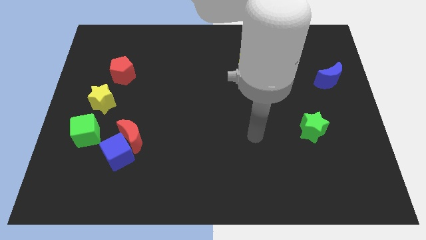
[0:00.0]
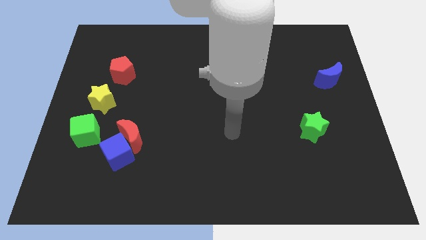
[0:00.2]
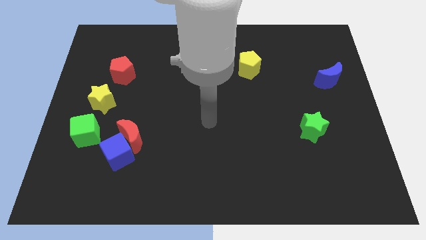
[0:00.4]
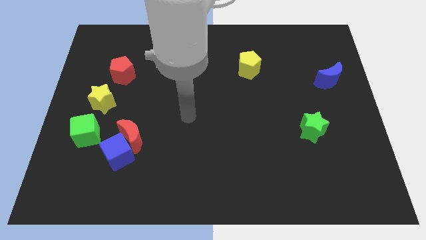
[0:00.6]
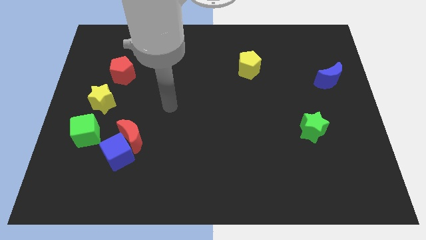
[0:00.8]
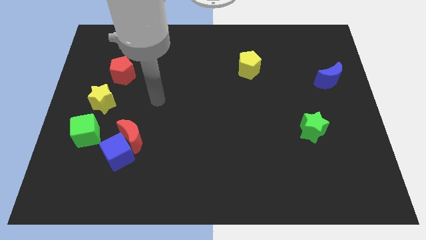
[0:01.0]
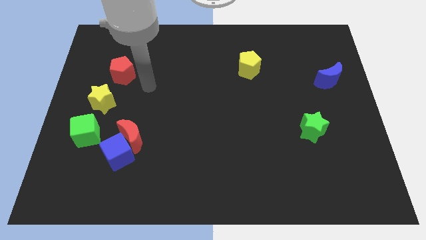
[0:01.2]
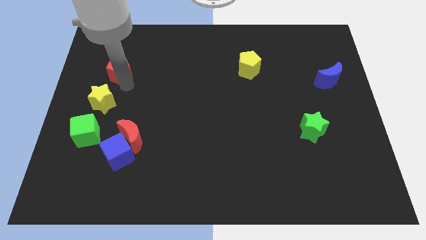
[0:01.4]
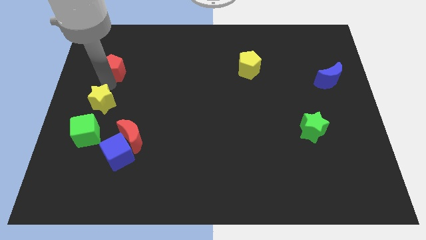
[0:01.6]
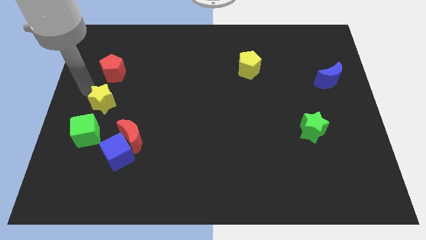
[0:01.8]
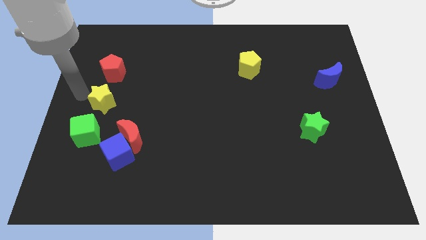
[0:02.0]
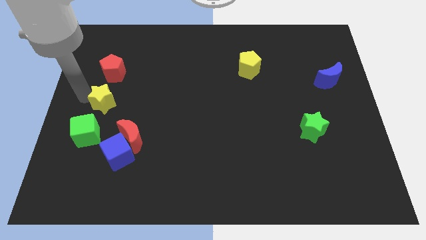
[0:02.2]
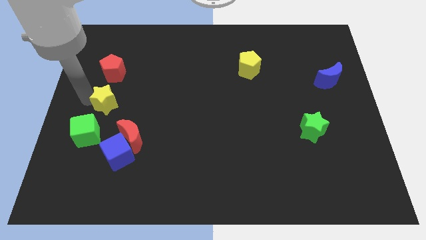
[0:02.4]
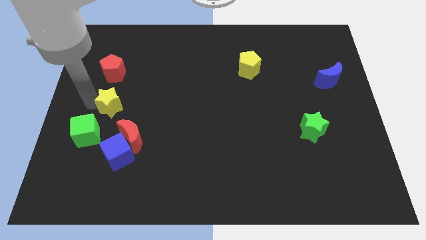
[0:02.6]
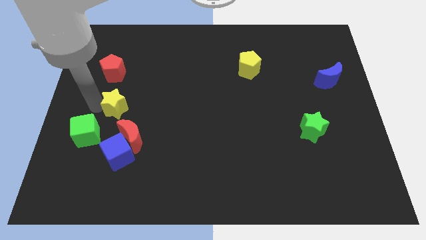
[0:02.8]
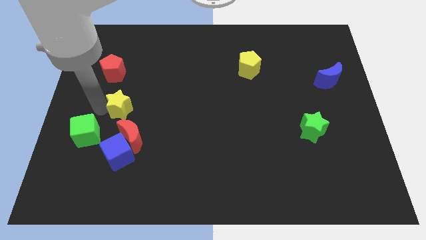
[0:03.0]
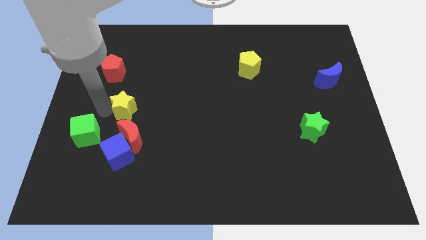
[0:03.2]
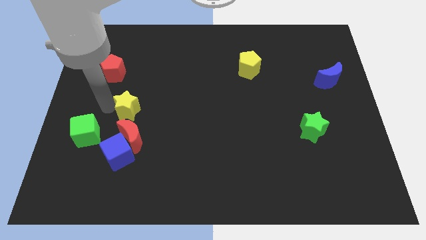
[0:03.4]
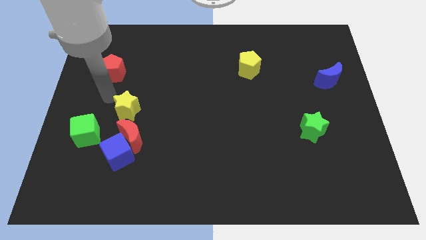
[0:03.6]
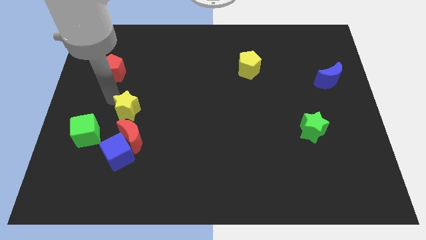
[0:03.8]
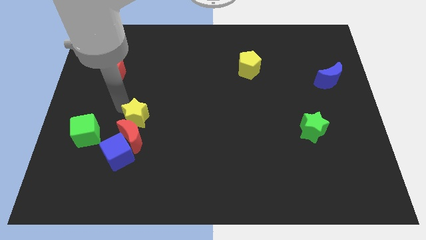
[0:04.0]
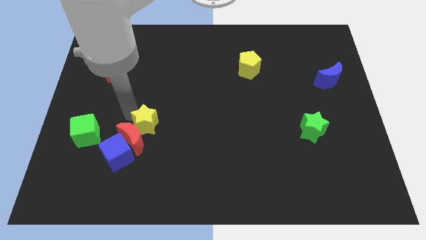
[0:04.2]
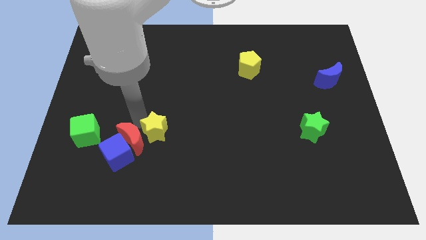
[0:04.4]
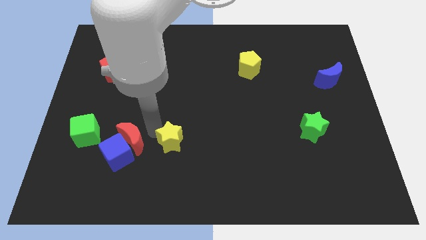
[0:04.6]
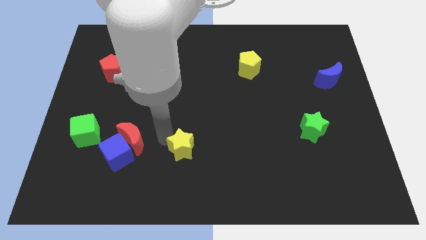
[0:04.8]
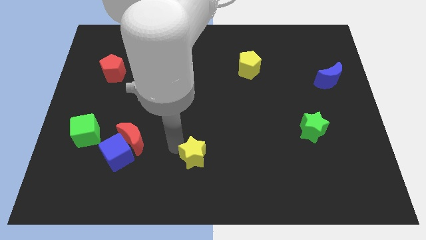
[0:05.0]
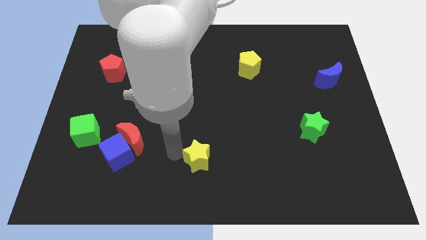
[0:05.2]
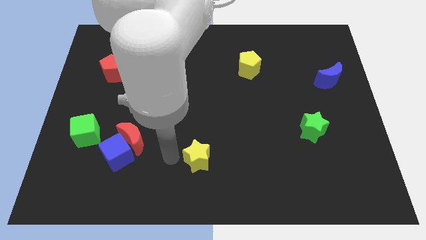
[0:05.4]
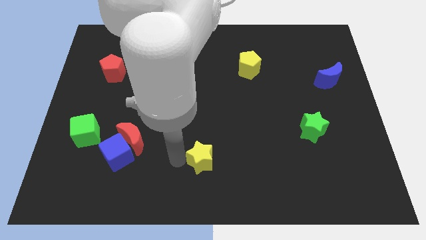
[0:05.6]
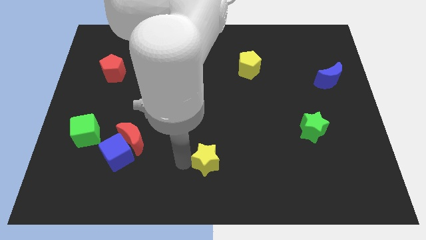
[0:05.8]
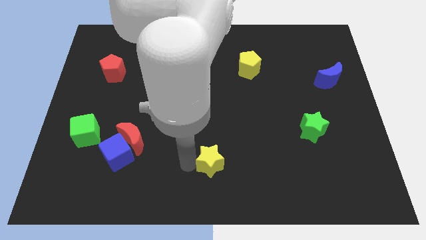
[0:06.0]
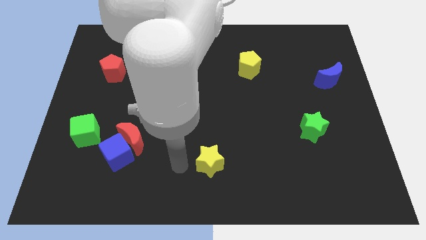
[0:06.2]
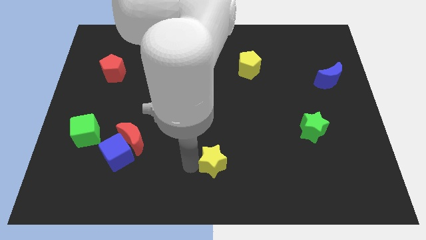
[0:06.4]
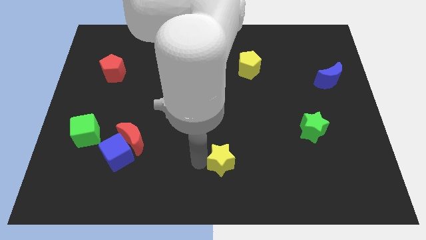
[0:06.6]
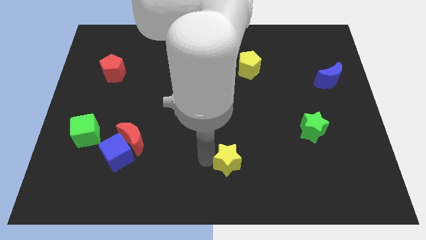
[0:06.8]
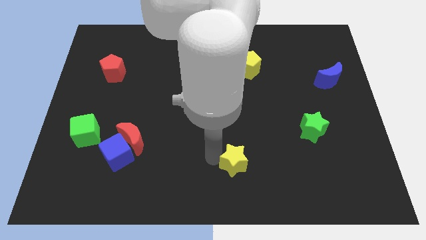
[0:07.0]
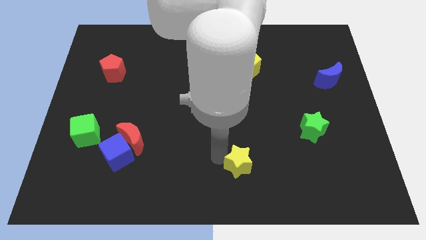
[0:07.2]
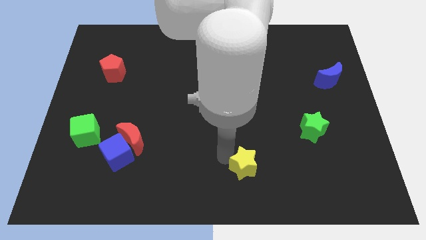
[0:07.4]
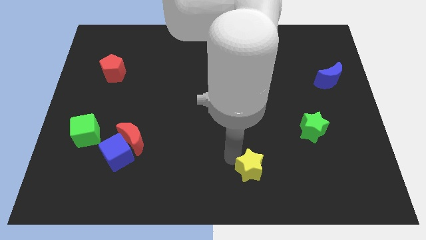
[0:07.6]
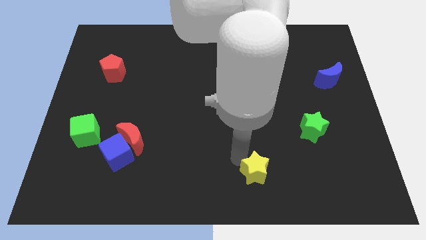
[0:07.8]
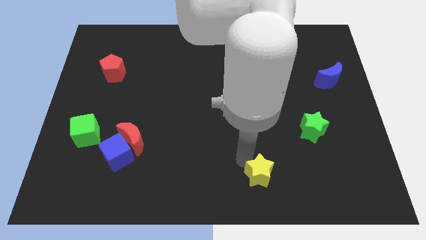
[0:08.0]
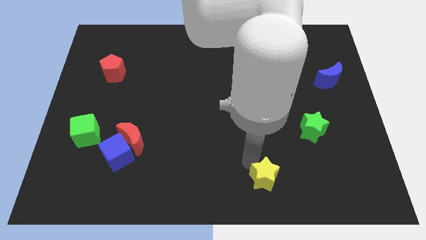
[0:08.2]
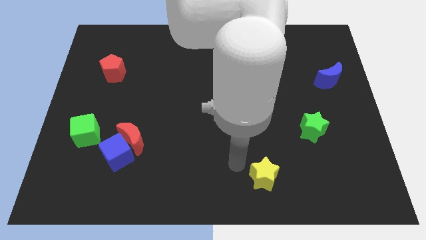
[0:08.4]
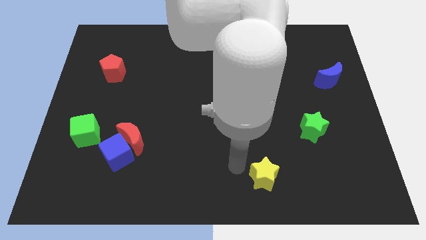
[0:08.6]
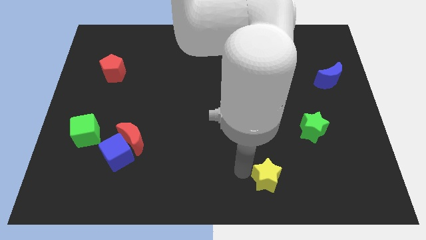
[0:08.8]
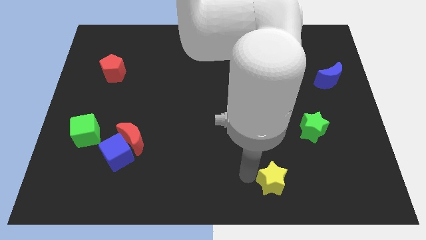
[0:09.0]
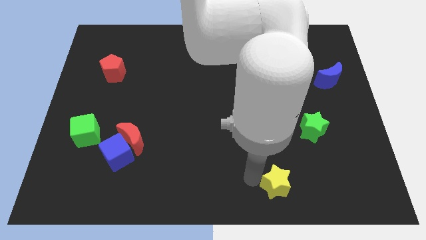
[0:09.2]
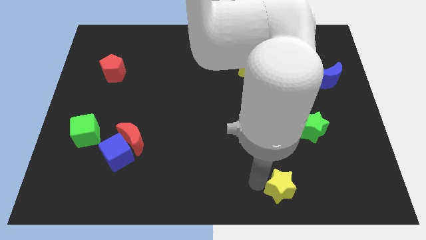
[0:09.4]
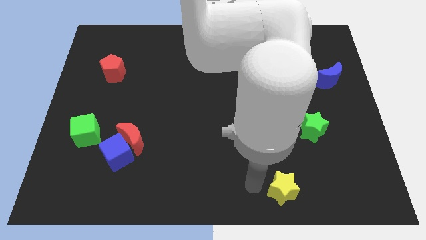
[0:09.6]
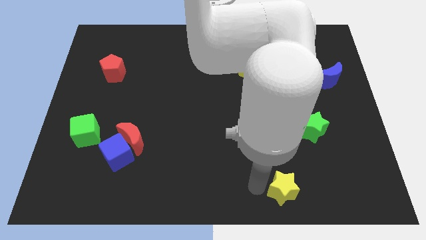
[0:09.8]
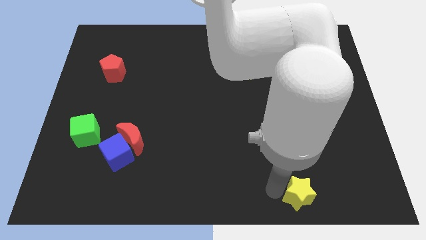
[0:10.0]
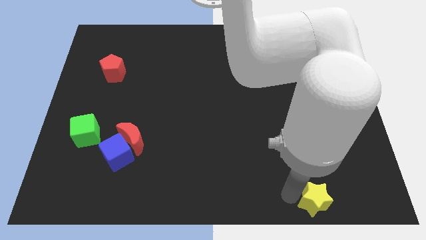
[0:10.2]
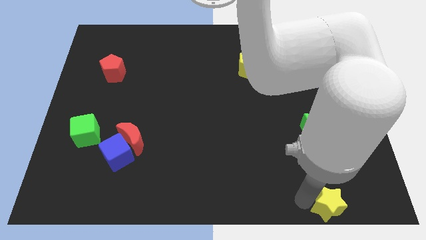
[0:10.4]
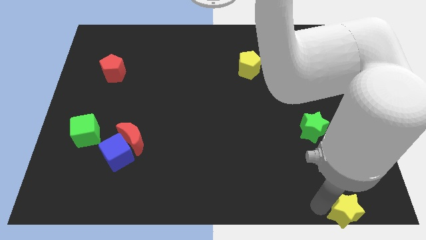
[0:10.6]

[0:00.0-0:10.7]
put the yellow star to the lower right corner

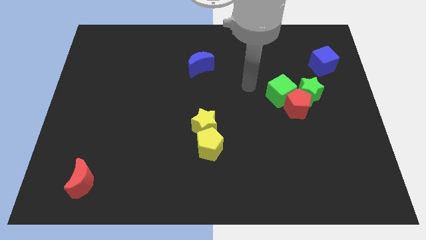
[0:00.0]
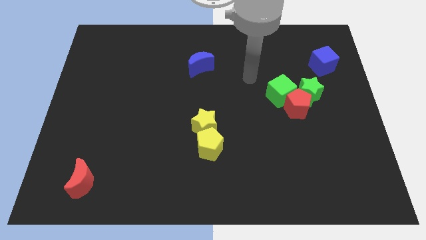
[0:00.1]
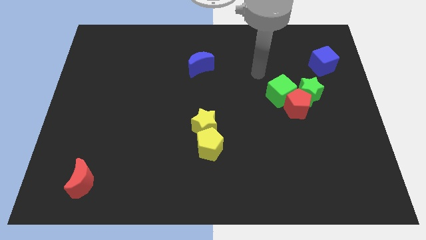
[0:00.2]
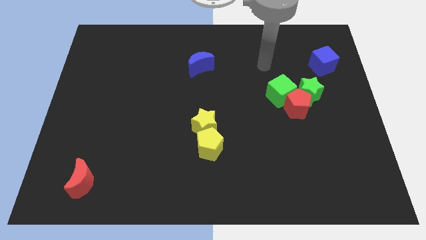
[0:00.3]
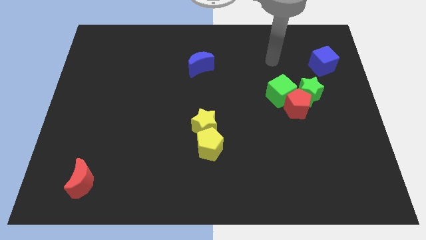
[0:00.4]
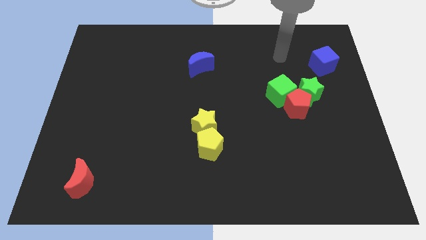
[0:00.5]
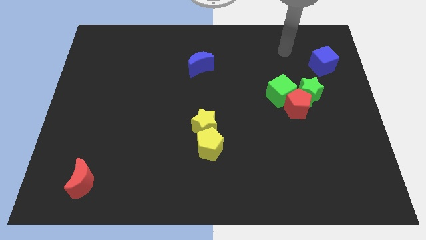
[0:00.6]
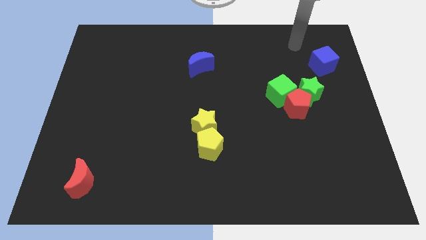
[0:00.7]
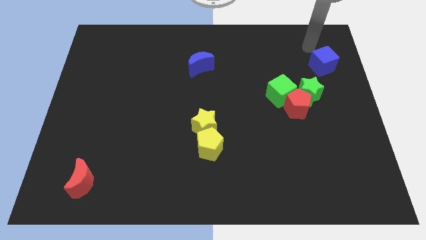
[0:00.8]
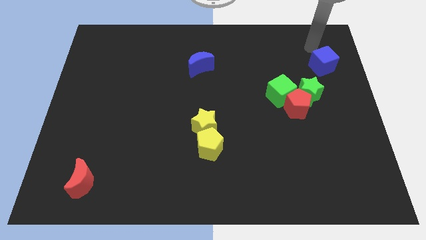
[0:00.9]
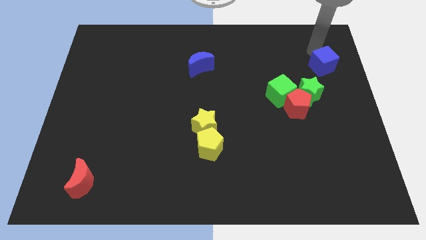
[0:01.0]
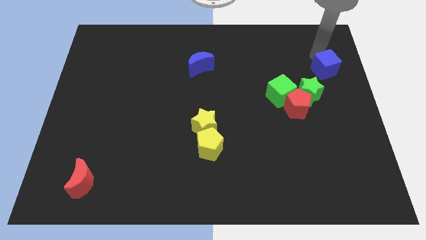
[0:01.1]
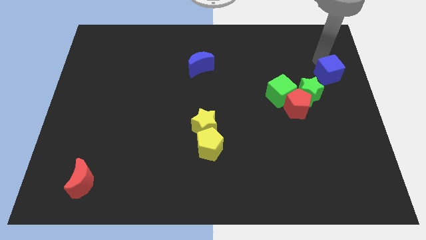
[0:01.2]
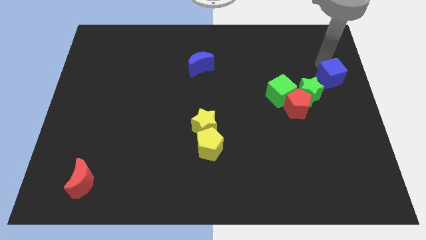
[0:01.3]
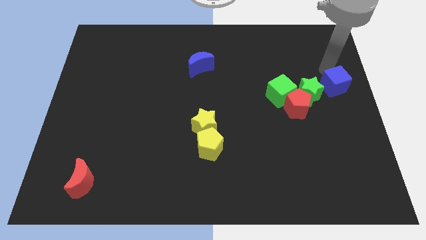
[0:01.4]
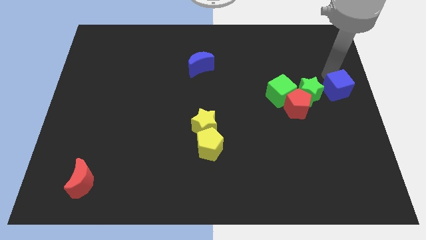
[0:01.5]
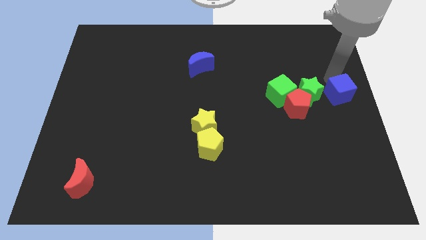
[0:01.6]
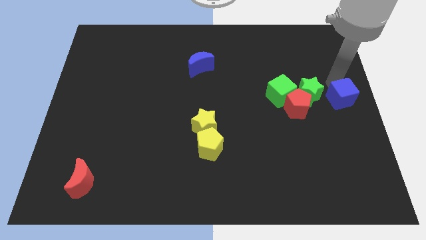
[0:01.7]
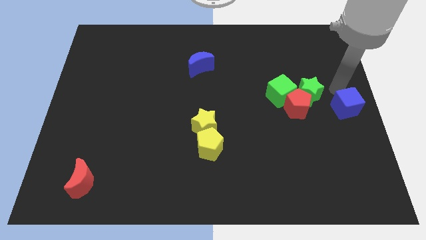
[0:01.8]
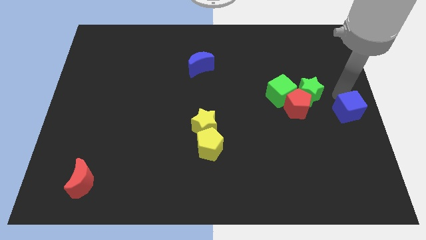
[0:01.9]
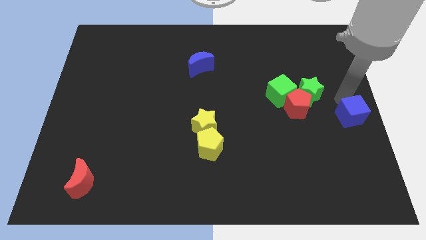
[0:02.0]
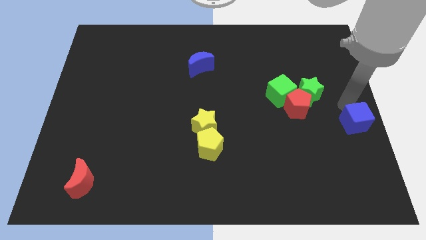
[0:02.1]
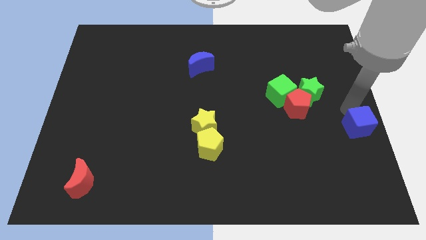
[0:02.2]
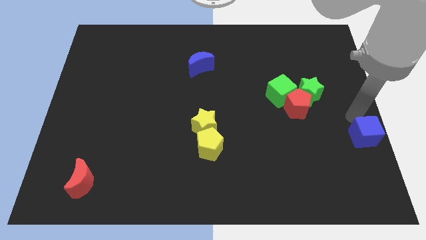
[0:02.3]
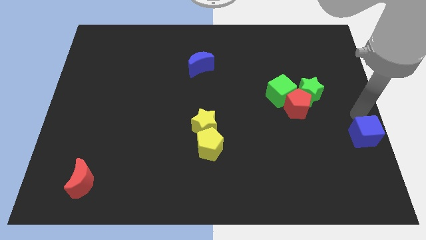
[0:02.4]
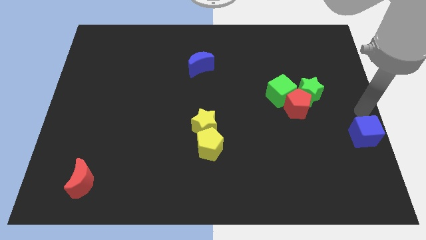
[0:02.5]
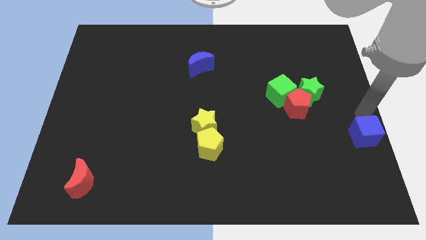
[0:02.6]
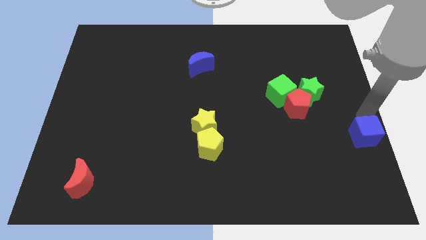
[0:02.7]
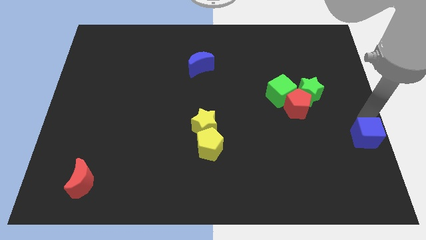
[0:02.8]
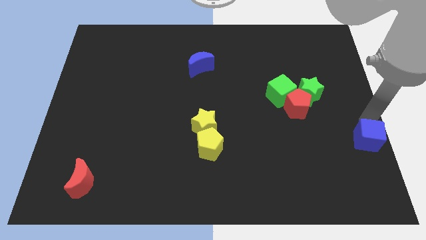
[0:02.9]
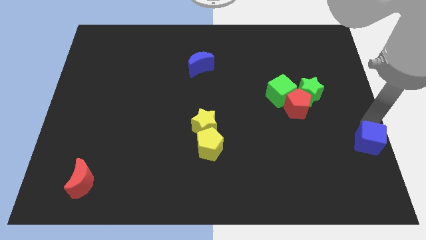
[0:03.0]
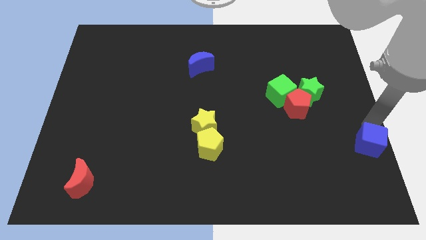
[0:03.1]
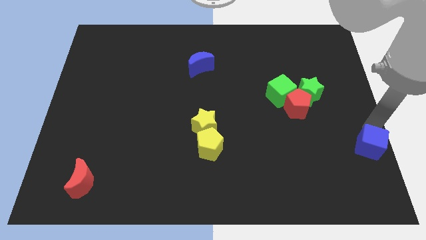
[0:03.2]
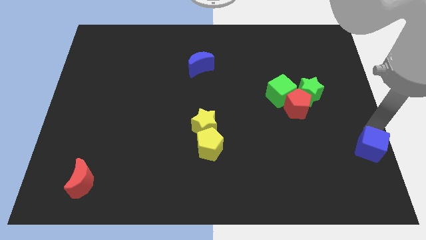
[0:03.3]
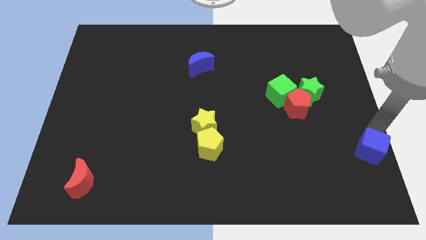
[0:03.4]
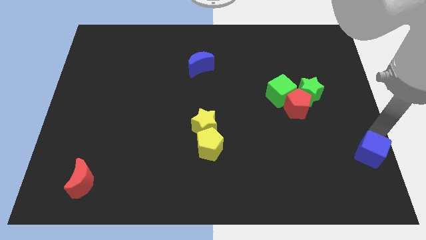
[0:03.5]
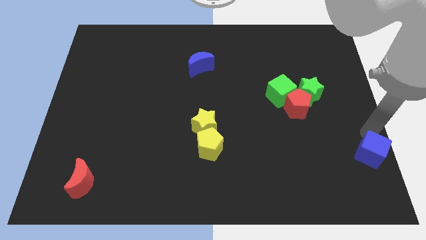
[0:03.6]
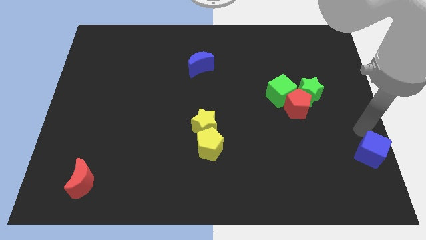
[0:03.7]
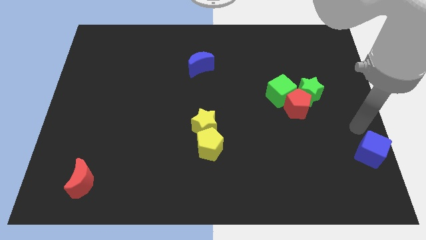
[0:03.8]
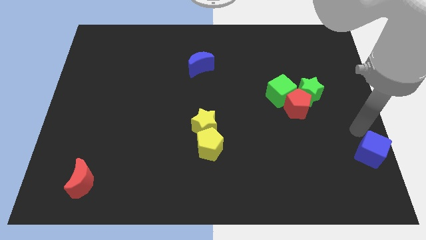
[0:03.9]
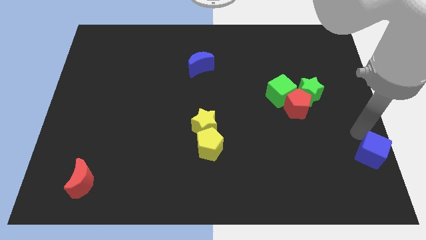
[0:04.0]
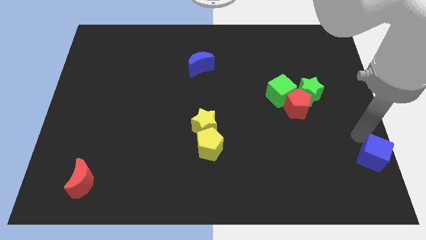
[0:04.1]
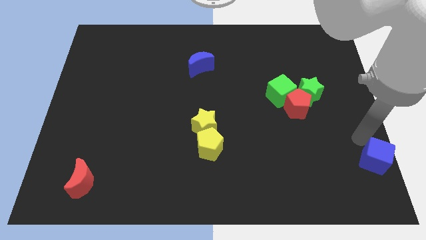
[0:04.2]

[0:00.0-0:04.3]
put the blue cube to the bottom right
